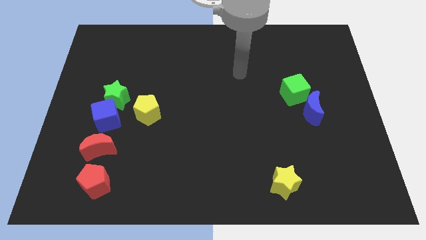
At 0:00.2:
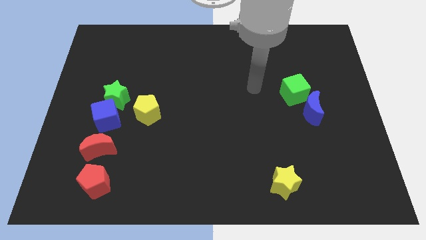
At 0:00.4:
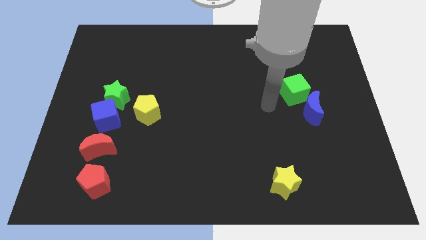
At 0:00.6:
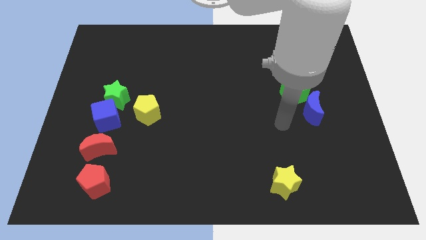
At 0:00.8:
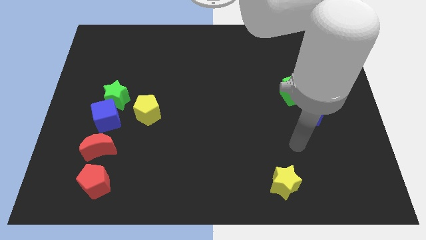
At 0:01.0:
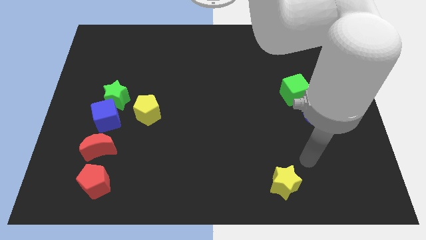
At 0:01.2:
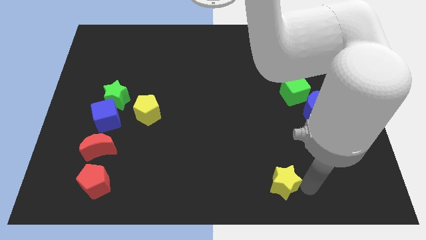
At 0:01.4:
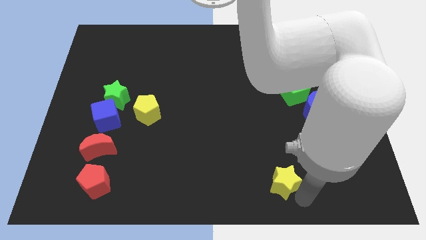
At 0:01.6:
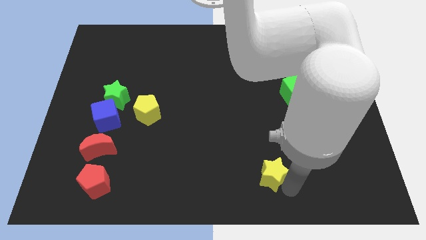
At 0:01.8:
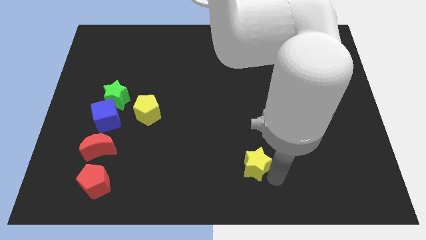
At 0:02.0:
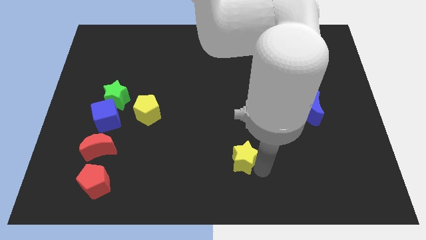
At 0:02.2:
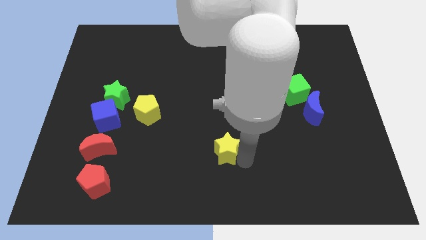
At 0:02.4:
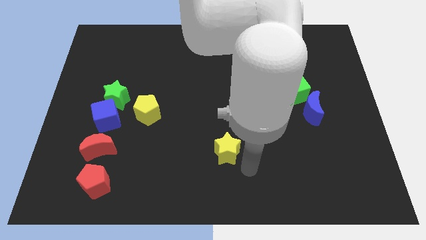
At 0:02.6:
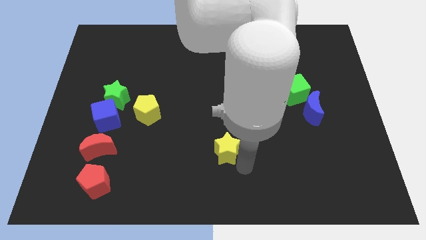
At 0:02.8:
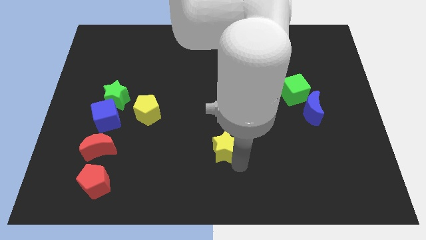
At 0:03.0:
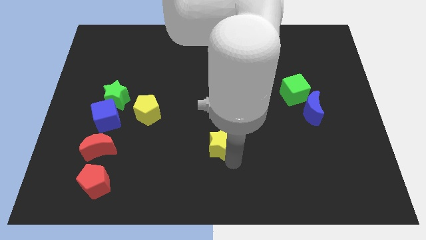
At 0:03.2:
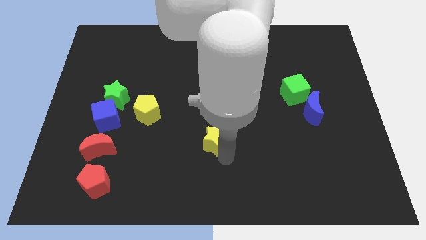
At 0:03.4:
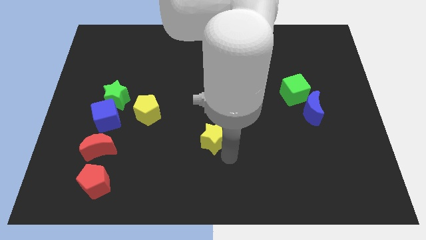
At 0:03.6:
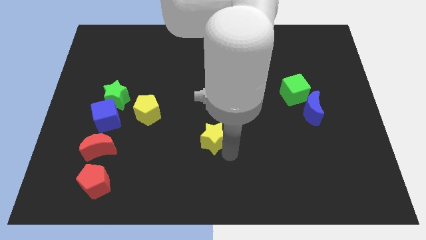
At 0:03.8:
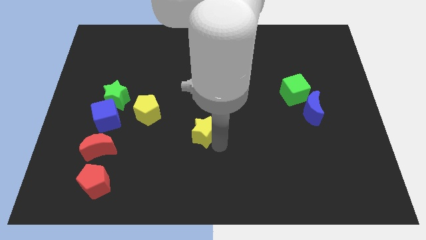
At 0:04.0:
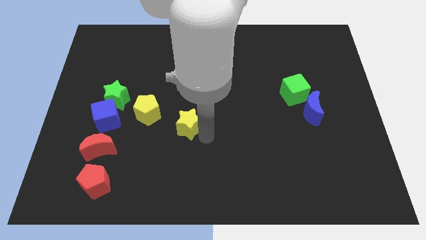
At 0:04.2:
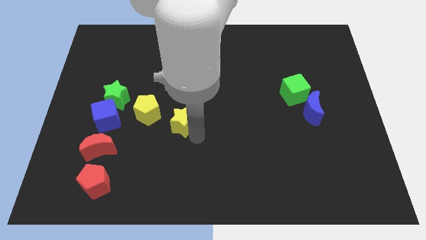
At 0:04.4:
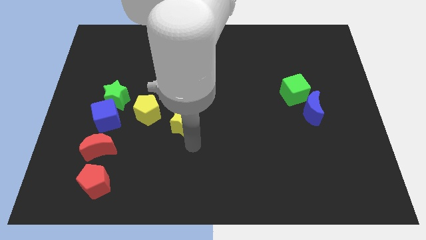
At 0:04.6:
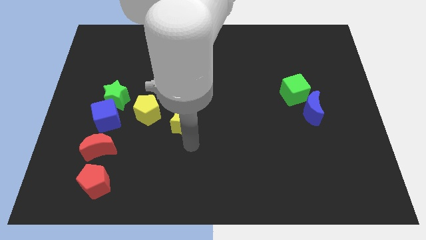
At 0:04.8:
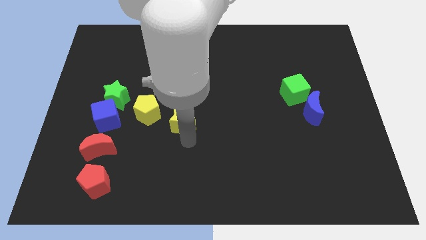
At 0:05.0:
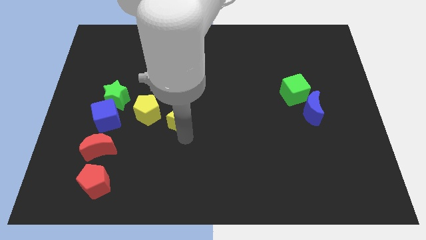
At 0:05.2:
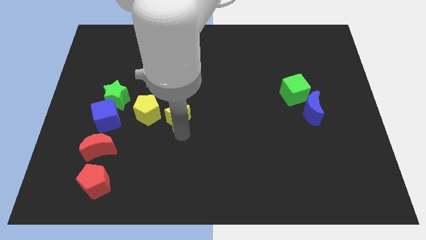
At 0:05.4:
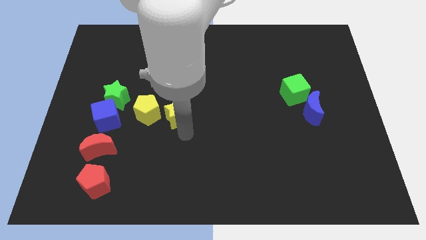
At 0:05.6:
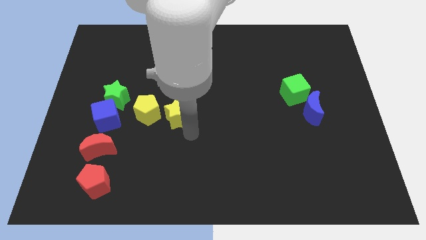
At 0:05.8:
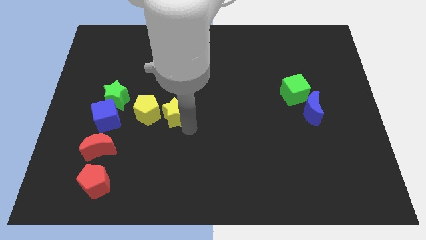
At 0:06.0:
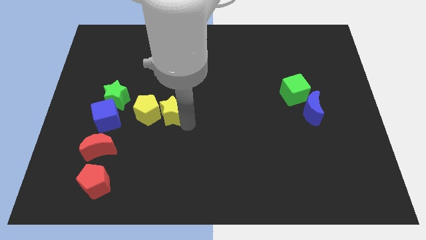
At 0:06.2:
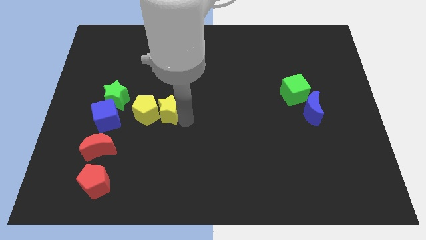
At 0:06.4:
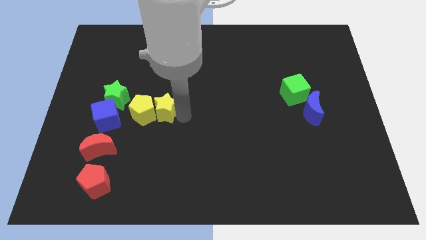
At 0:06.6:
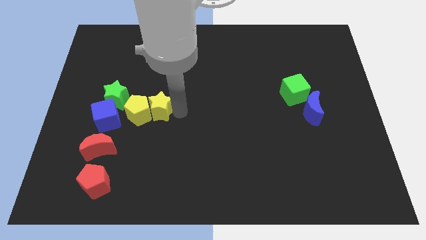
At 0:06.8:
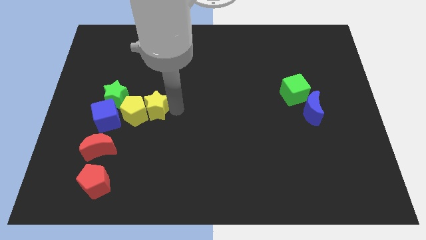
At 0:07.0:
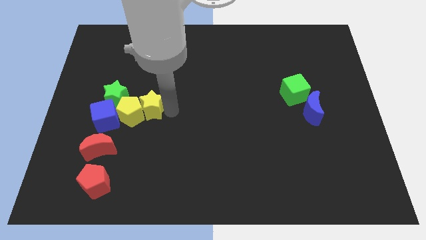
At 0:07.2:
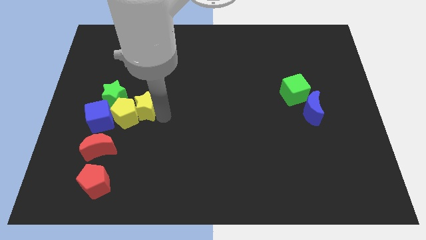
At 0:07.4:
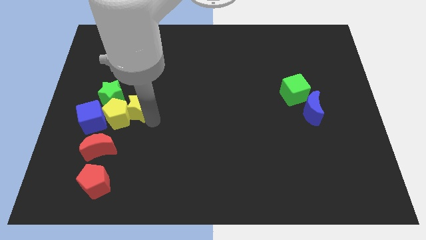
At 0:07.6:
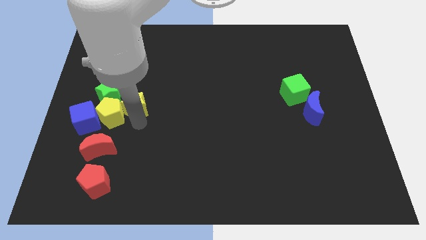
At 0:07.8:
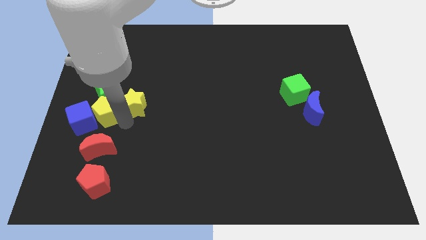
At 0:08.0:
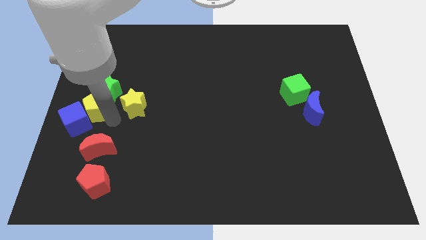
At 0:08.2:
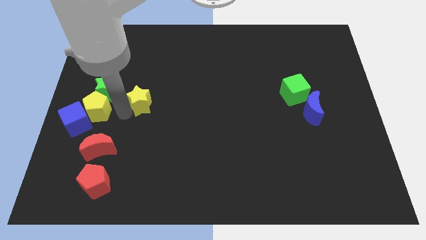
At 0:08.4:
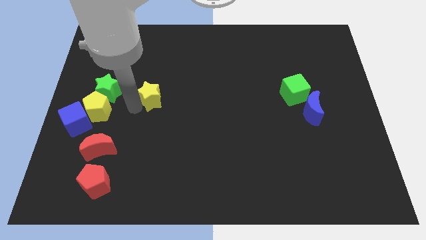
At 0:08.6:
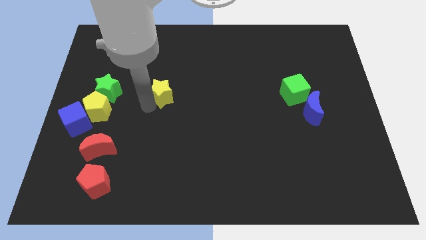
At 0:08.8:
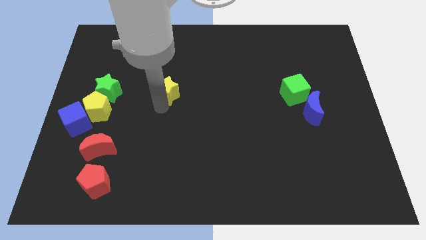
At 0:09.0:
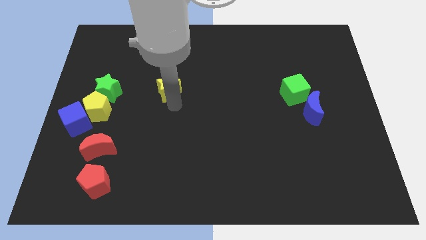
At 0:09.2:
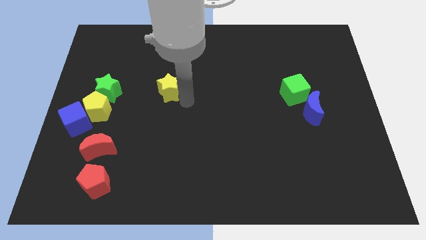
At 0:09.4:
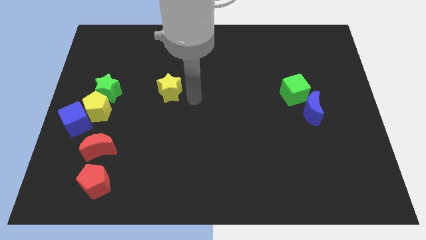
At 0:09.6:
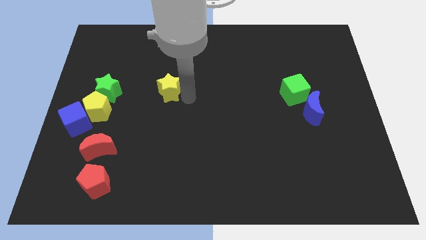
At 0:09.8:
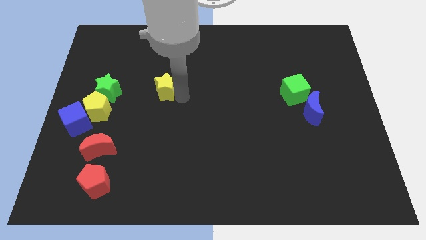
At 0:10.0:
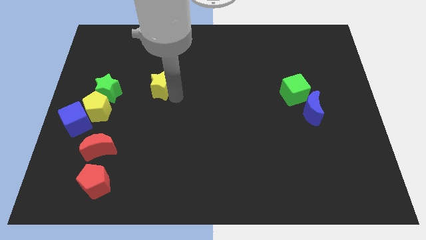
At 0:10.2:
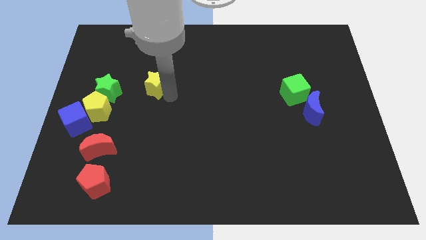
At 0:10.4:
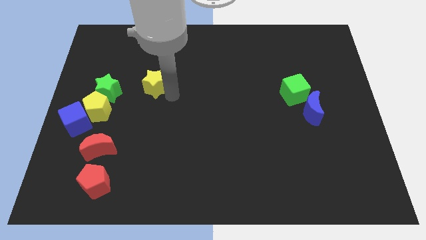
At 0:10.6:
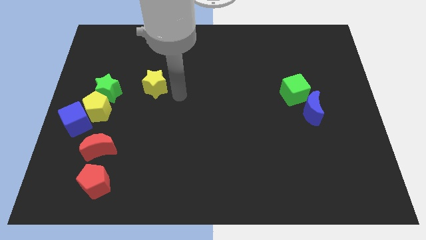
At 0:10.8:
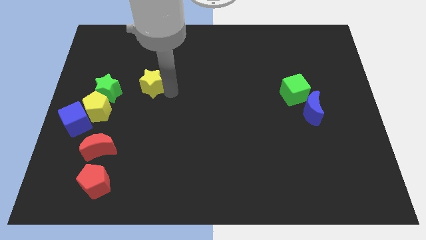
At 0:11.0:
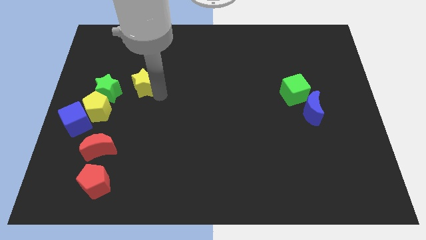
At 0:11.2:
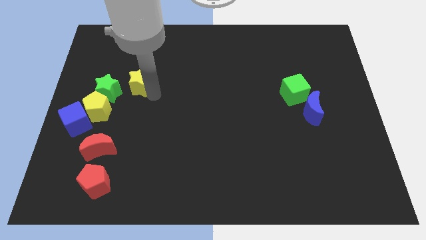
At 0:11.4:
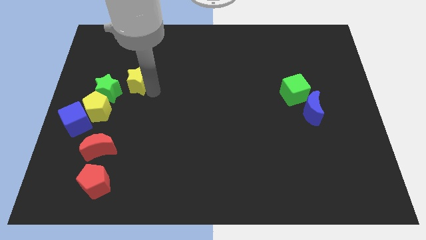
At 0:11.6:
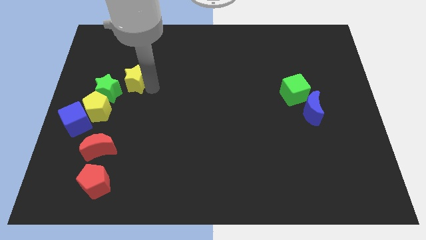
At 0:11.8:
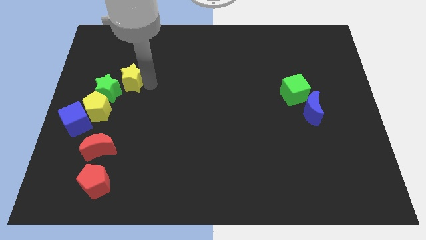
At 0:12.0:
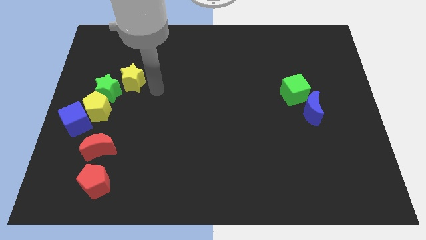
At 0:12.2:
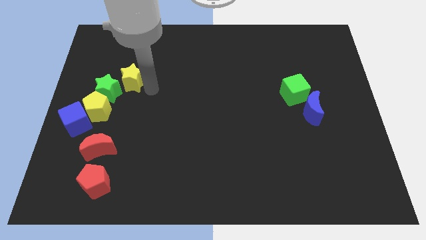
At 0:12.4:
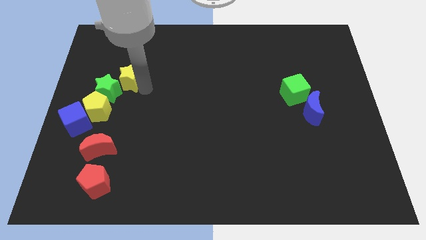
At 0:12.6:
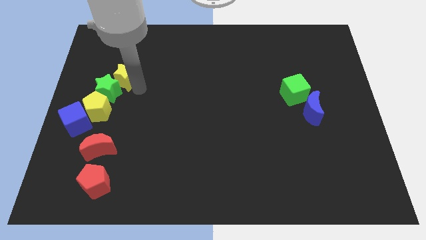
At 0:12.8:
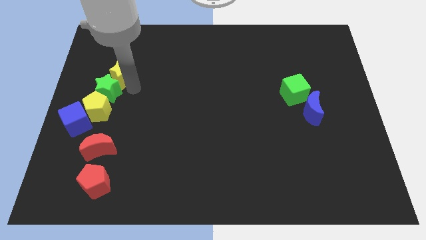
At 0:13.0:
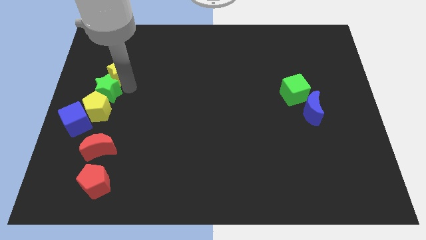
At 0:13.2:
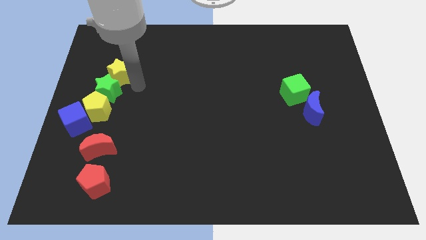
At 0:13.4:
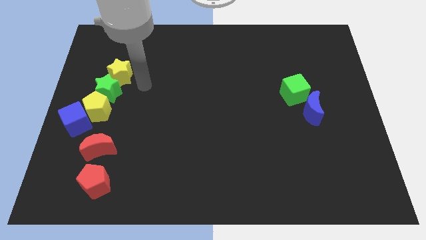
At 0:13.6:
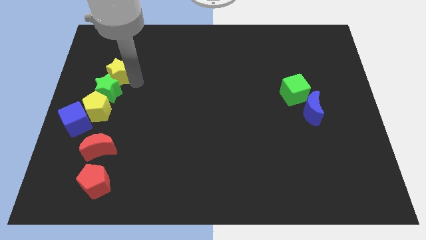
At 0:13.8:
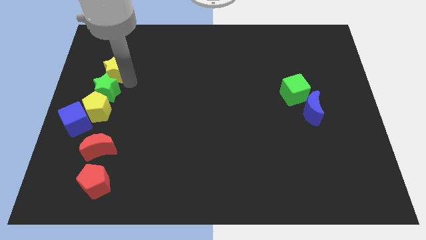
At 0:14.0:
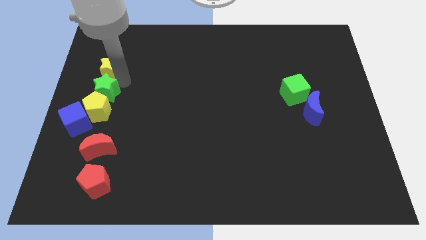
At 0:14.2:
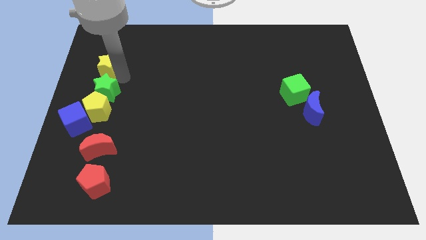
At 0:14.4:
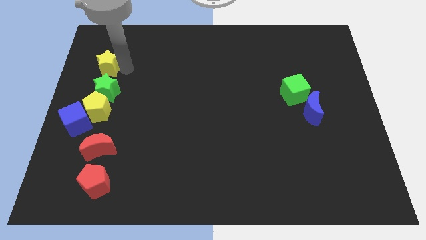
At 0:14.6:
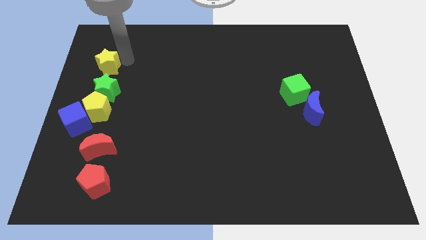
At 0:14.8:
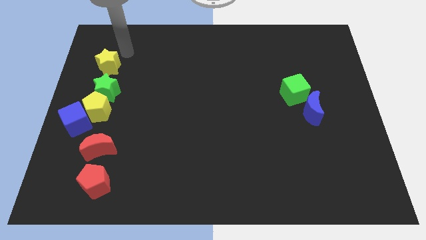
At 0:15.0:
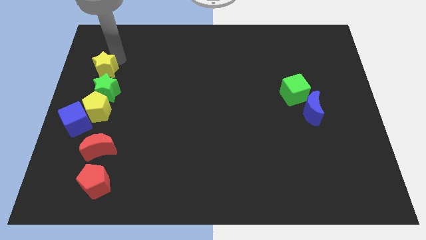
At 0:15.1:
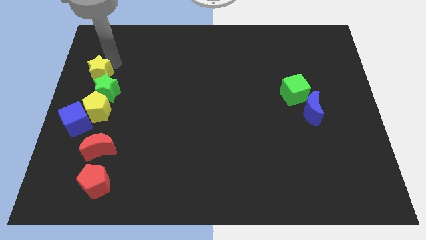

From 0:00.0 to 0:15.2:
slide the yellow star to the center left
